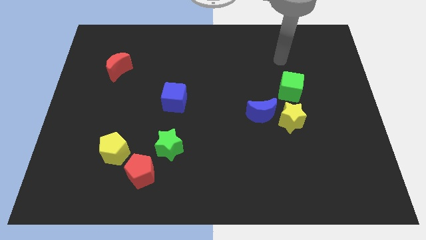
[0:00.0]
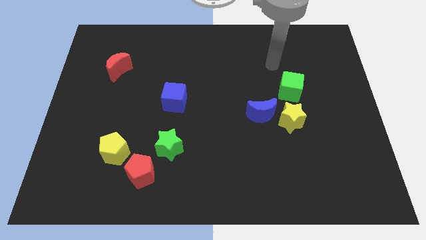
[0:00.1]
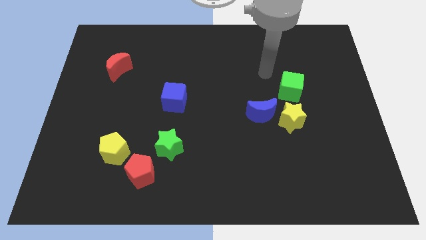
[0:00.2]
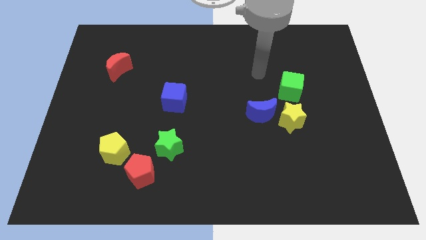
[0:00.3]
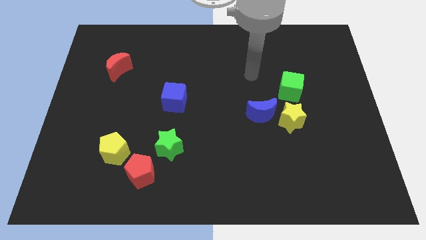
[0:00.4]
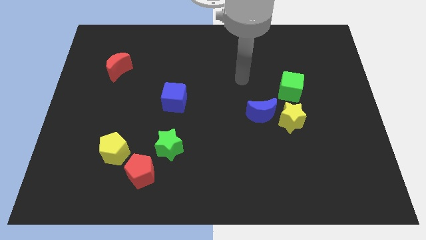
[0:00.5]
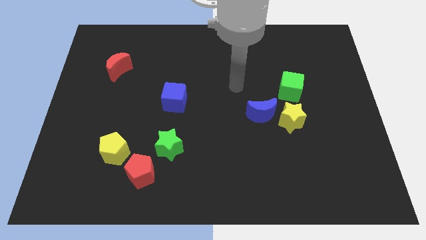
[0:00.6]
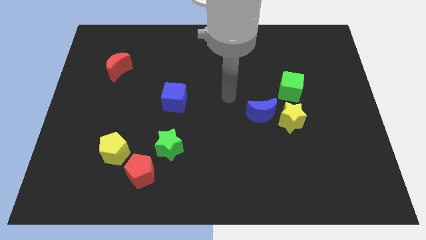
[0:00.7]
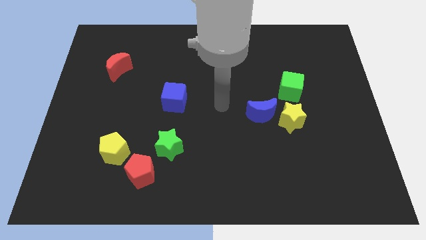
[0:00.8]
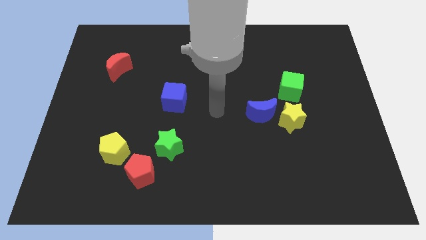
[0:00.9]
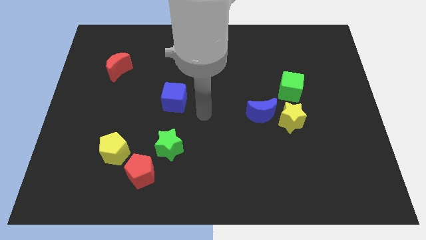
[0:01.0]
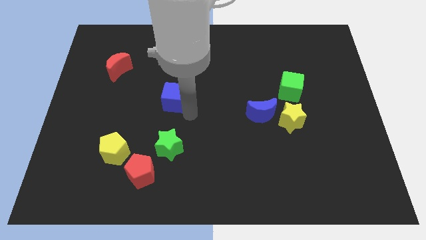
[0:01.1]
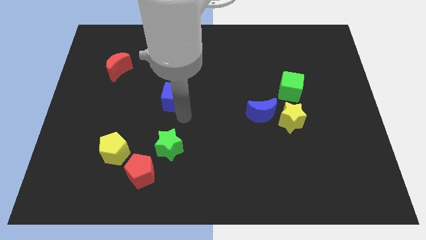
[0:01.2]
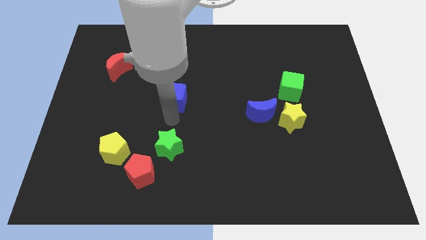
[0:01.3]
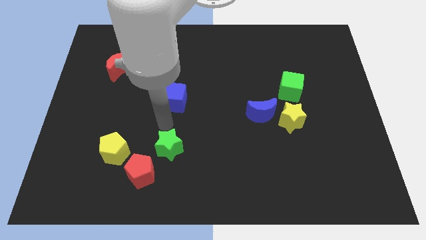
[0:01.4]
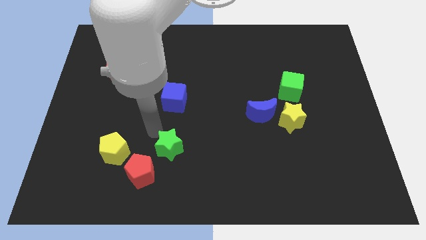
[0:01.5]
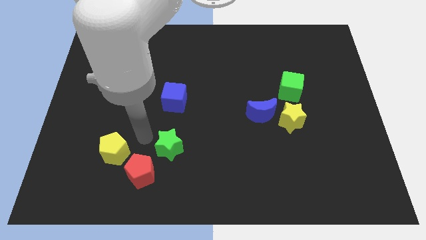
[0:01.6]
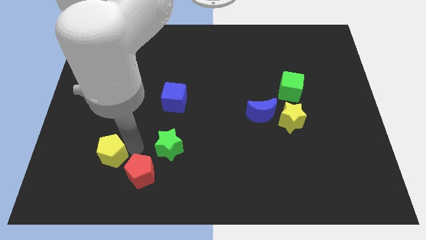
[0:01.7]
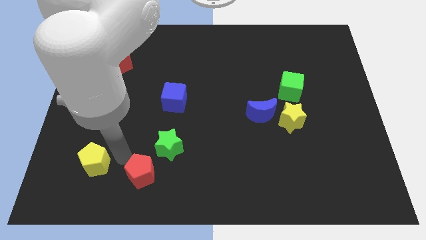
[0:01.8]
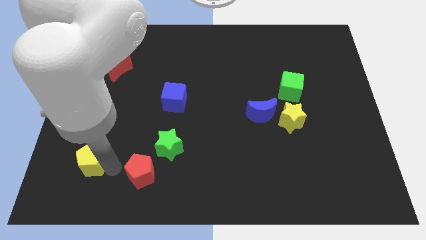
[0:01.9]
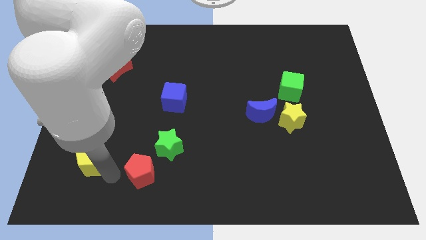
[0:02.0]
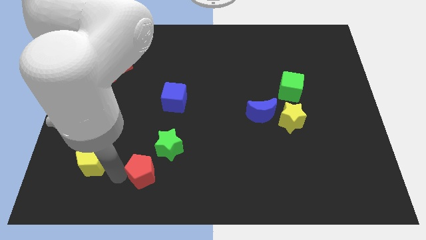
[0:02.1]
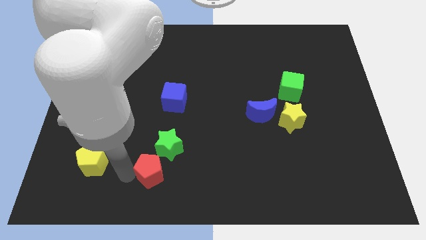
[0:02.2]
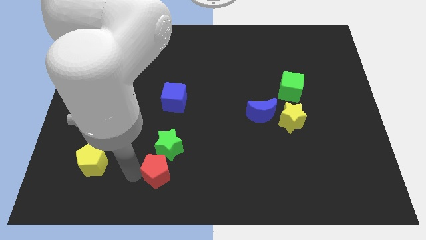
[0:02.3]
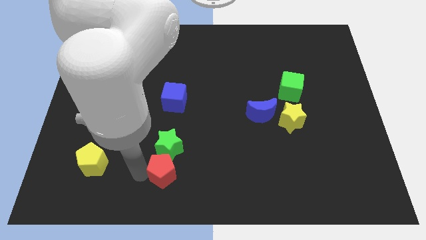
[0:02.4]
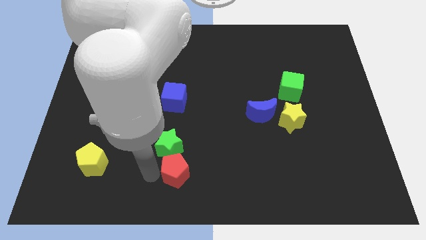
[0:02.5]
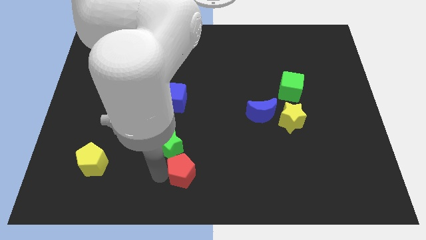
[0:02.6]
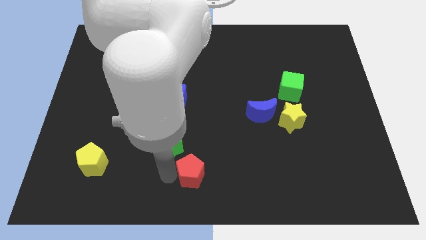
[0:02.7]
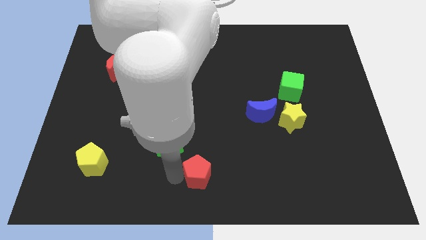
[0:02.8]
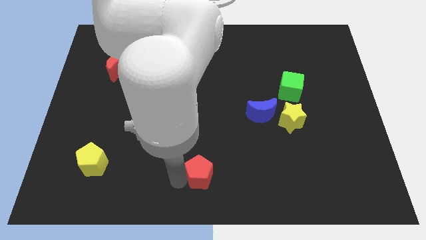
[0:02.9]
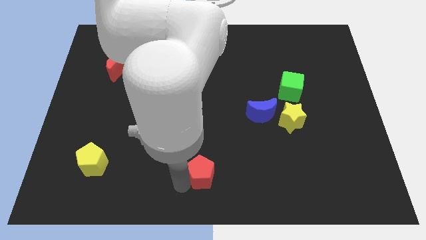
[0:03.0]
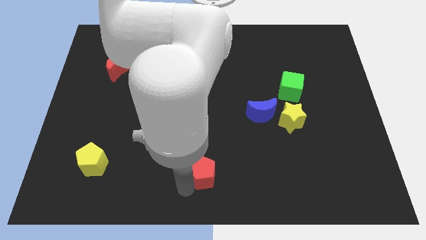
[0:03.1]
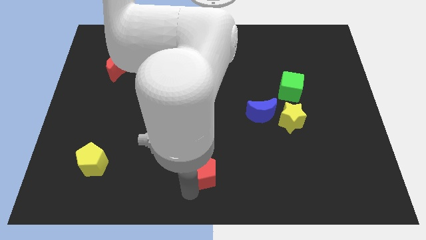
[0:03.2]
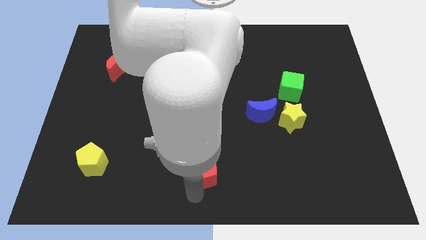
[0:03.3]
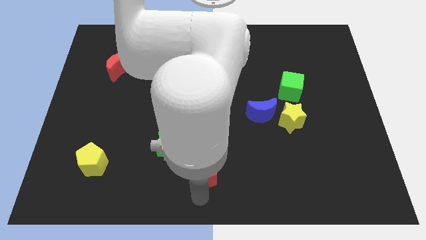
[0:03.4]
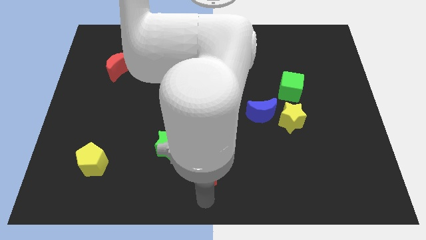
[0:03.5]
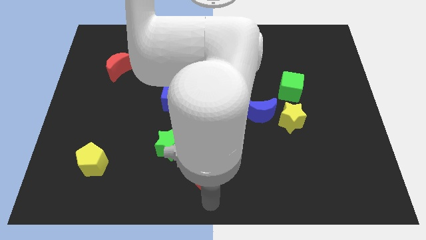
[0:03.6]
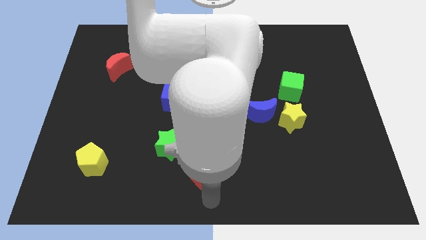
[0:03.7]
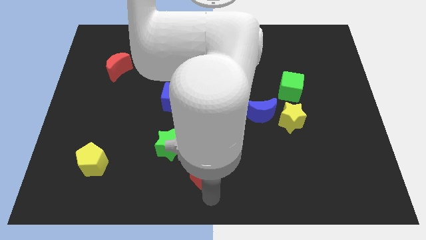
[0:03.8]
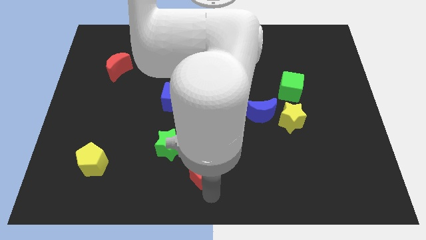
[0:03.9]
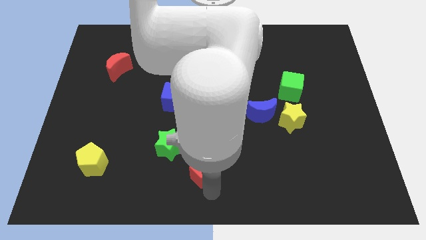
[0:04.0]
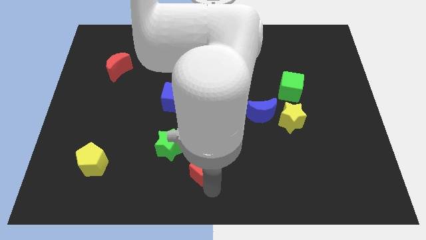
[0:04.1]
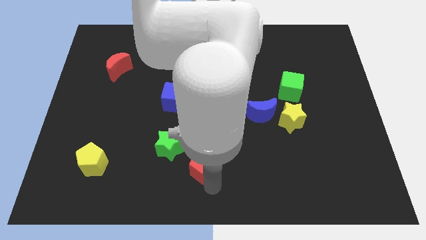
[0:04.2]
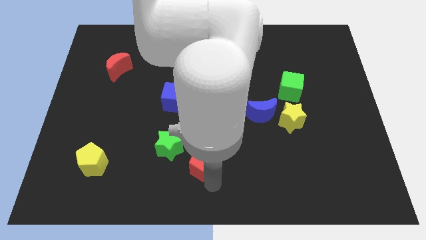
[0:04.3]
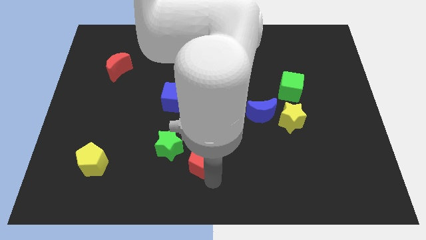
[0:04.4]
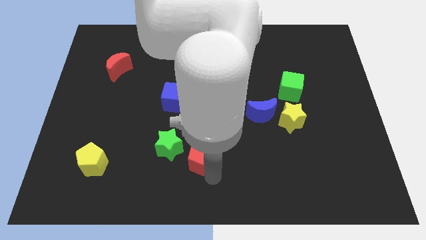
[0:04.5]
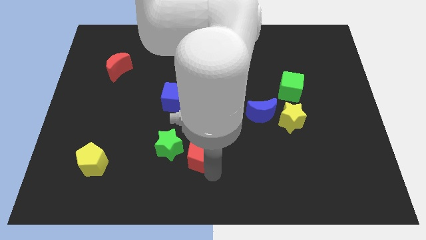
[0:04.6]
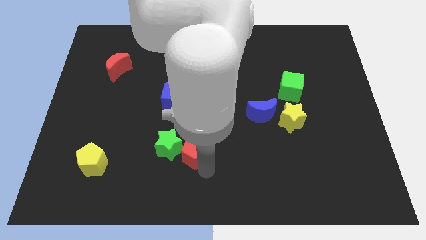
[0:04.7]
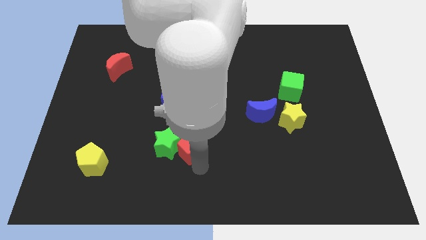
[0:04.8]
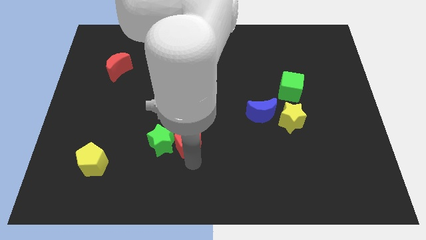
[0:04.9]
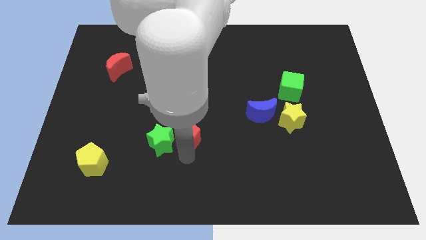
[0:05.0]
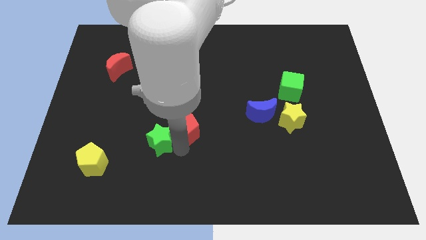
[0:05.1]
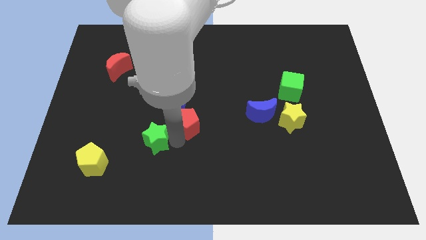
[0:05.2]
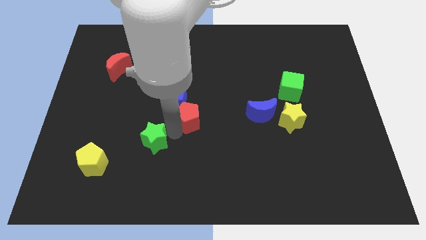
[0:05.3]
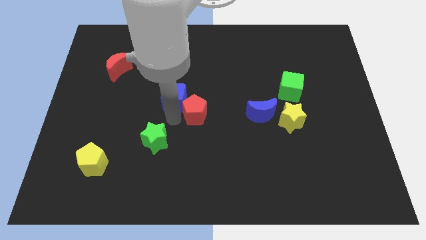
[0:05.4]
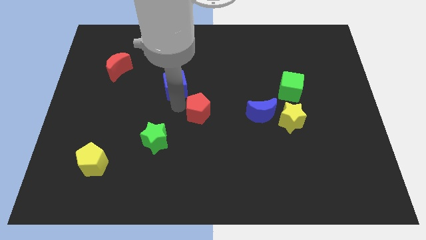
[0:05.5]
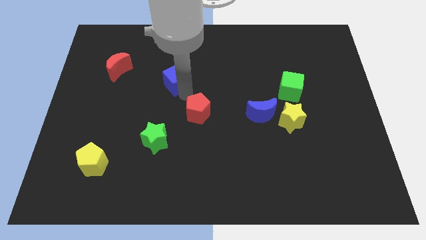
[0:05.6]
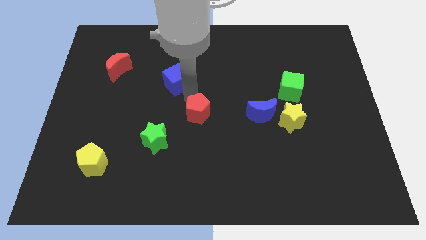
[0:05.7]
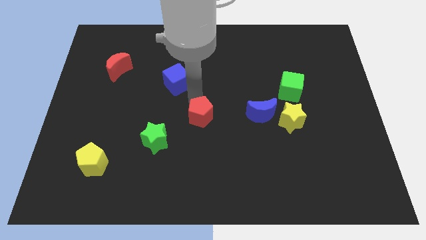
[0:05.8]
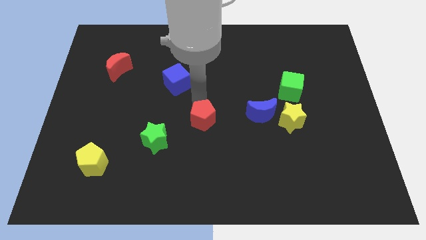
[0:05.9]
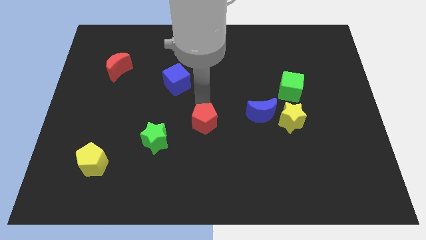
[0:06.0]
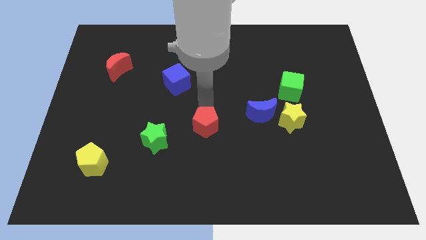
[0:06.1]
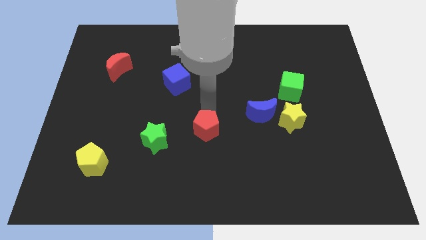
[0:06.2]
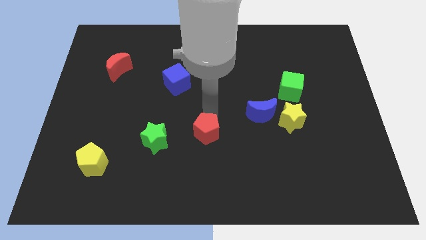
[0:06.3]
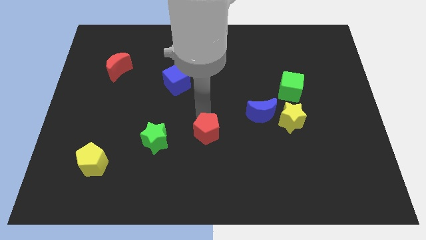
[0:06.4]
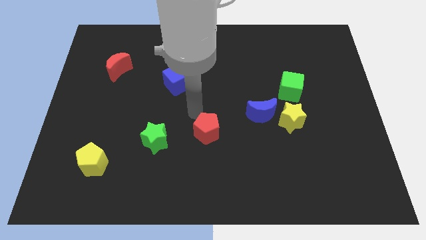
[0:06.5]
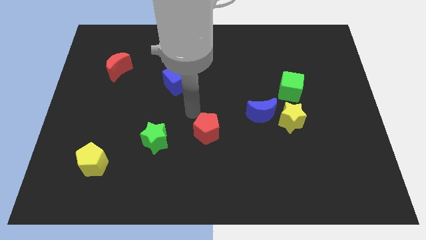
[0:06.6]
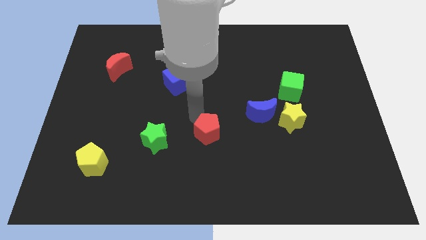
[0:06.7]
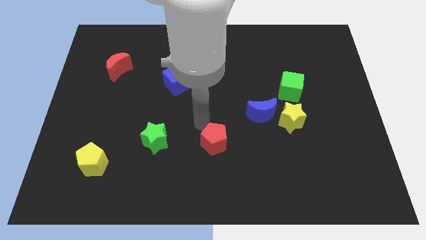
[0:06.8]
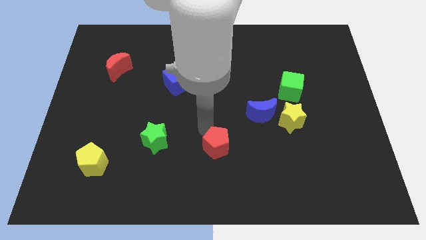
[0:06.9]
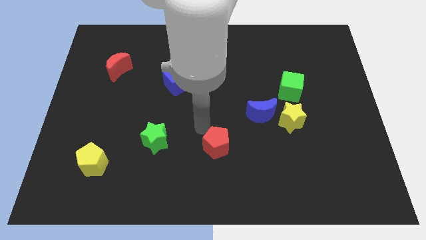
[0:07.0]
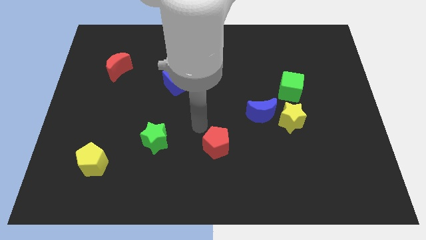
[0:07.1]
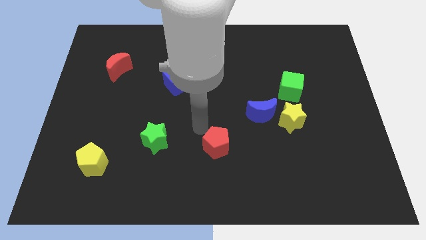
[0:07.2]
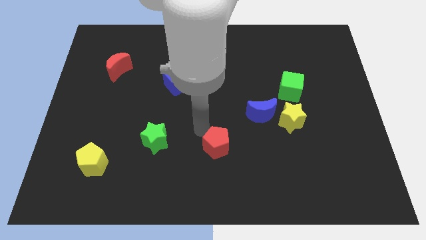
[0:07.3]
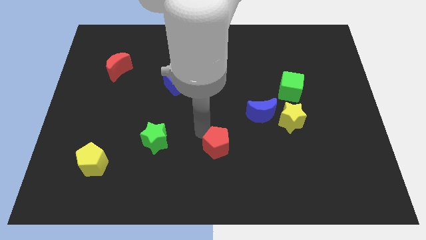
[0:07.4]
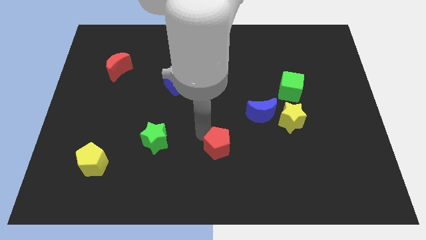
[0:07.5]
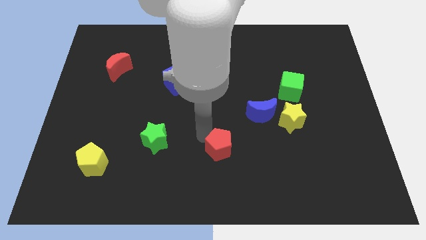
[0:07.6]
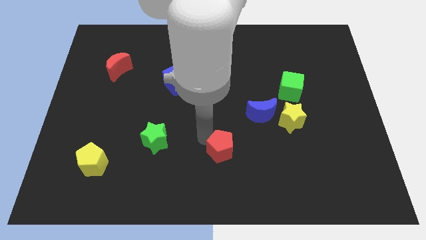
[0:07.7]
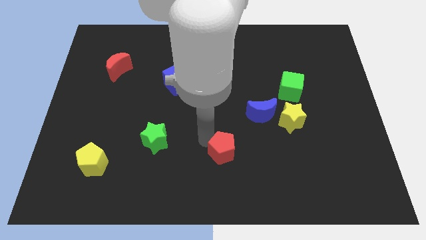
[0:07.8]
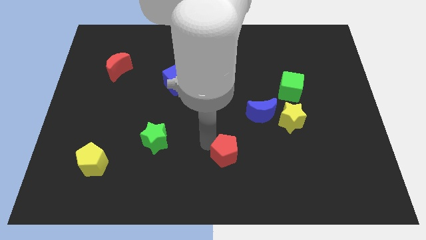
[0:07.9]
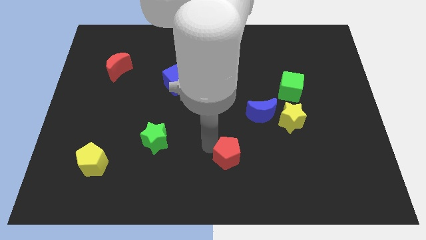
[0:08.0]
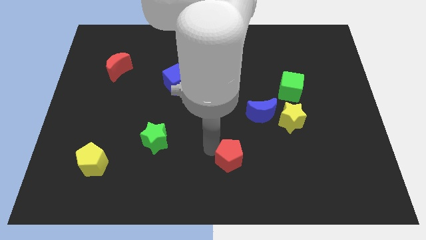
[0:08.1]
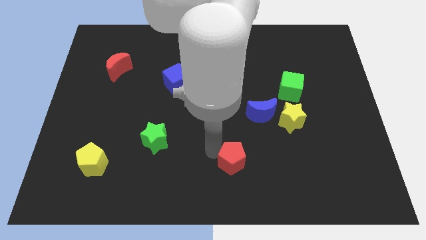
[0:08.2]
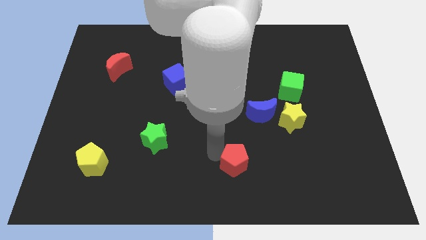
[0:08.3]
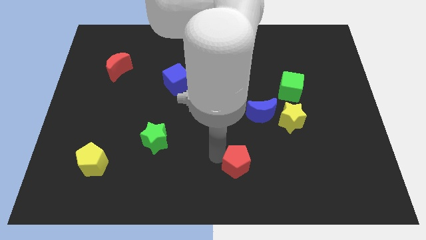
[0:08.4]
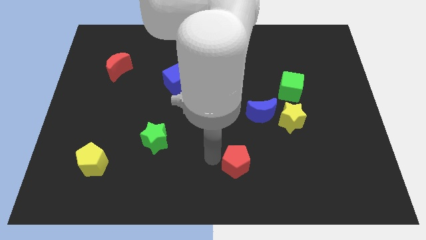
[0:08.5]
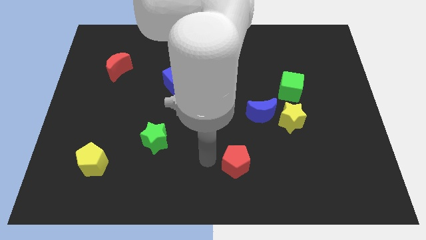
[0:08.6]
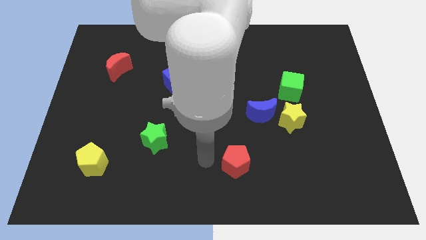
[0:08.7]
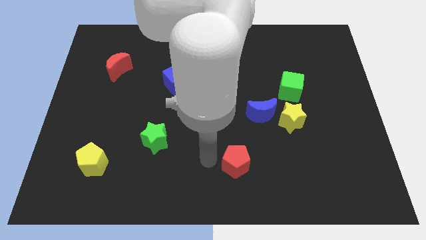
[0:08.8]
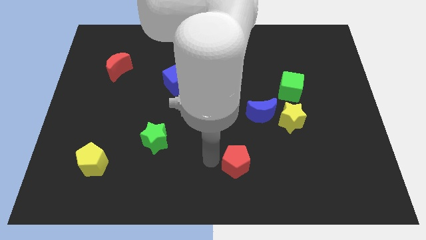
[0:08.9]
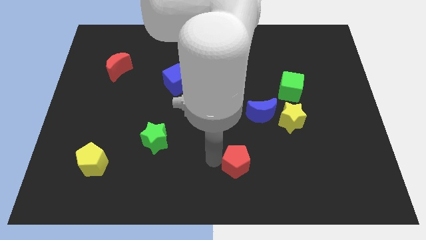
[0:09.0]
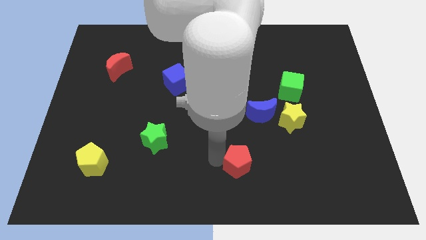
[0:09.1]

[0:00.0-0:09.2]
slide the red pentagon right
